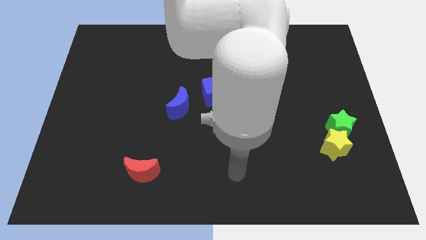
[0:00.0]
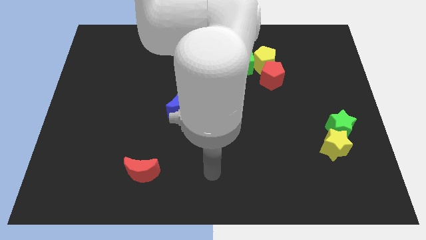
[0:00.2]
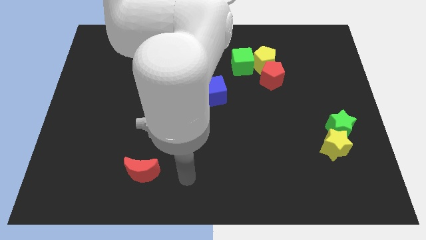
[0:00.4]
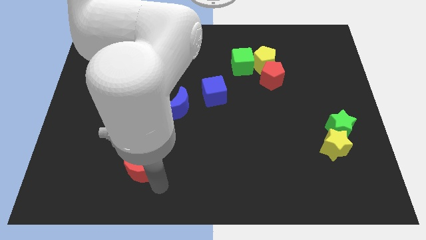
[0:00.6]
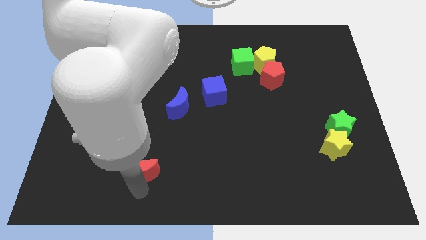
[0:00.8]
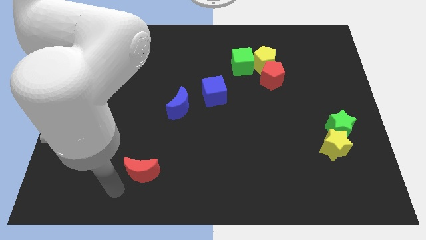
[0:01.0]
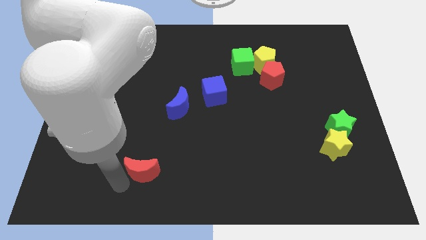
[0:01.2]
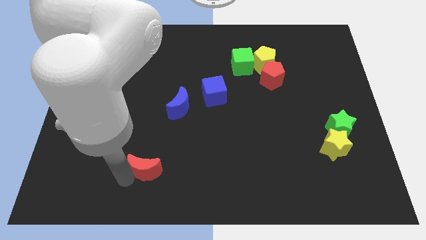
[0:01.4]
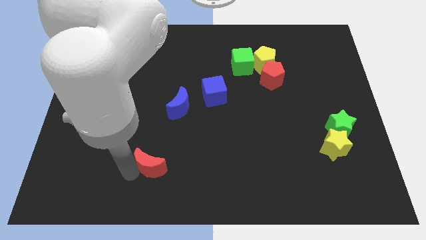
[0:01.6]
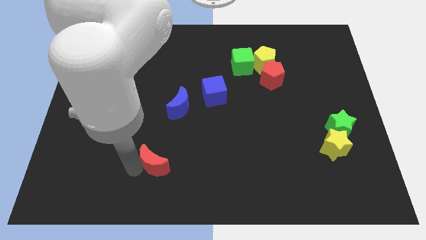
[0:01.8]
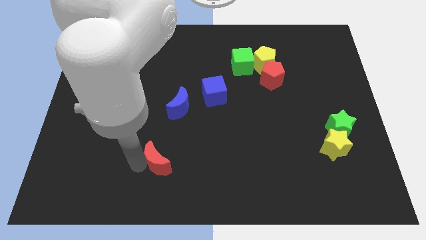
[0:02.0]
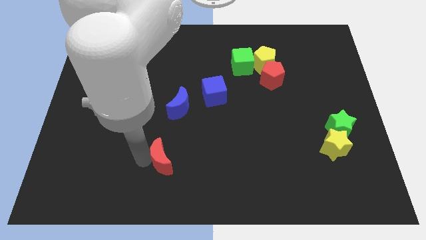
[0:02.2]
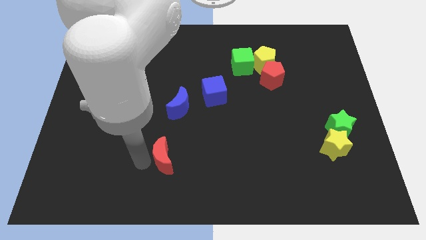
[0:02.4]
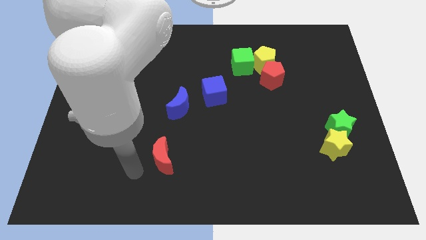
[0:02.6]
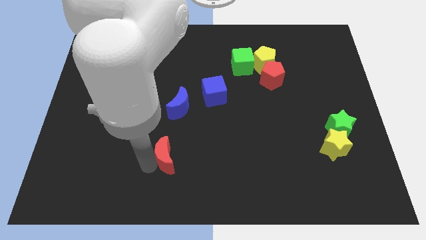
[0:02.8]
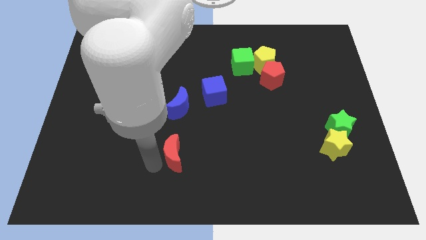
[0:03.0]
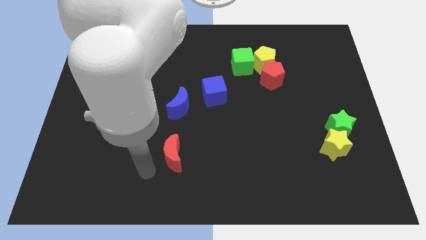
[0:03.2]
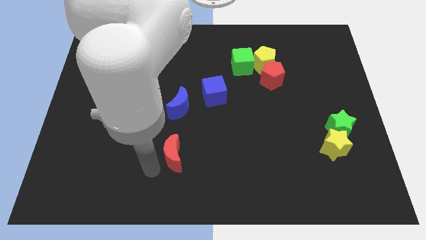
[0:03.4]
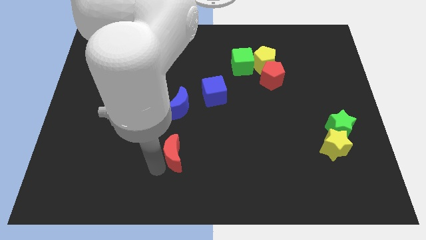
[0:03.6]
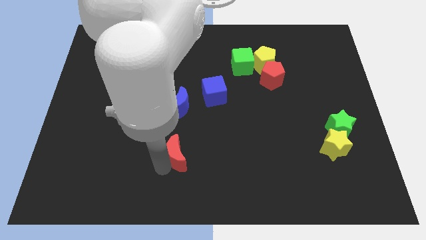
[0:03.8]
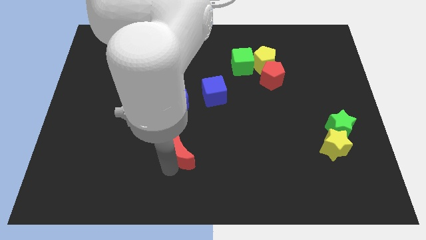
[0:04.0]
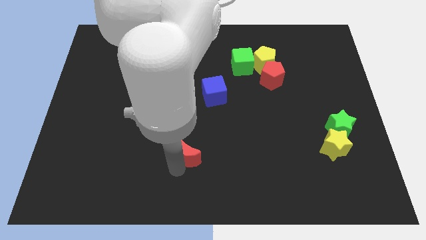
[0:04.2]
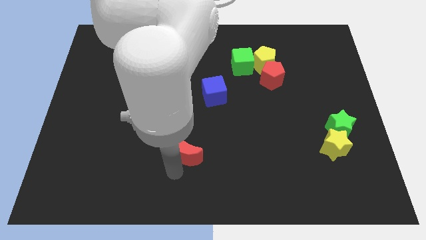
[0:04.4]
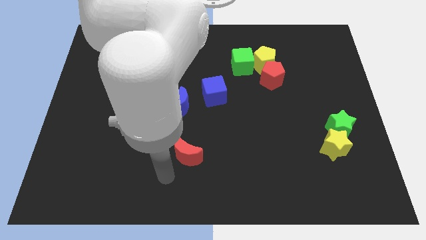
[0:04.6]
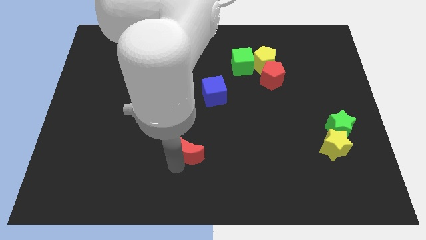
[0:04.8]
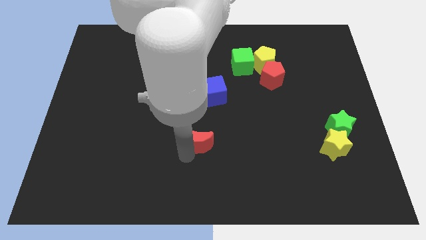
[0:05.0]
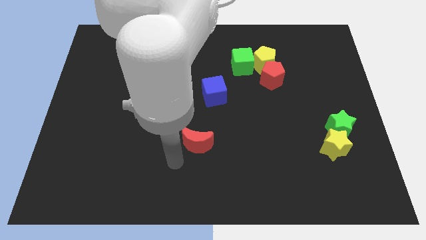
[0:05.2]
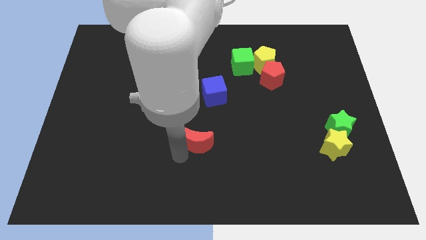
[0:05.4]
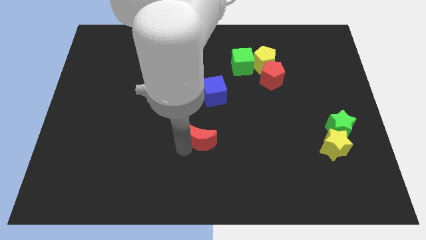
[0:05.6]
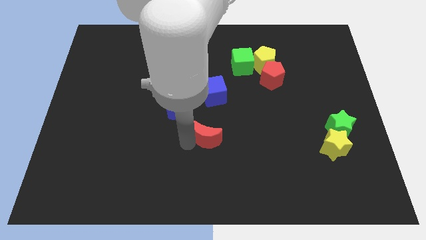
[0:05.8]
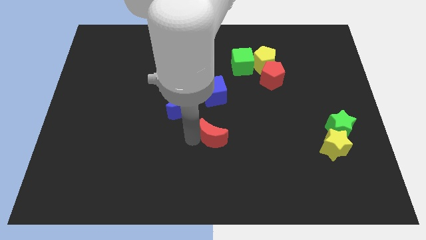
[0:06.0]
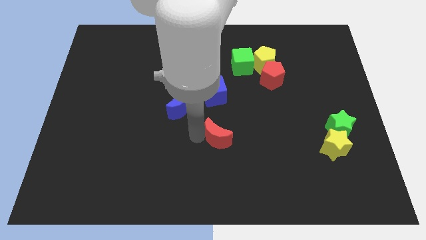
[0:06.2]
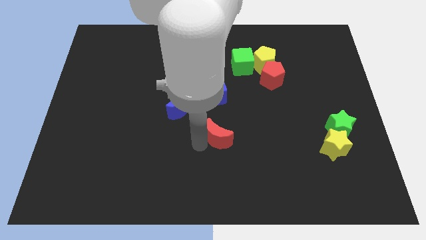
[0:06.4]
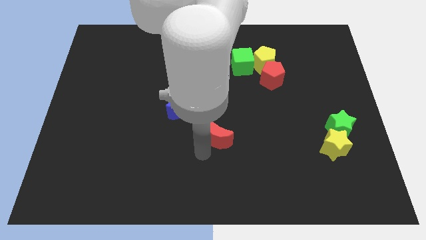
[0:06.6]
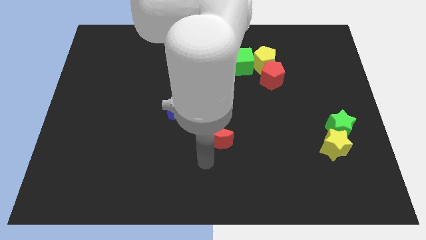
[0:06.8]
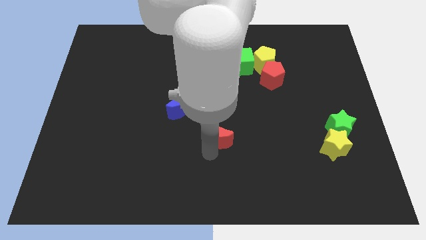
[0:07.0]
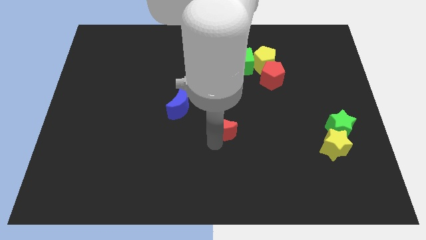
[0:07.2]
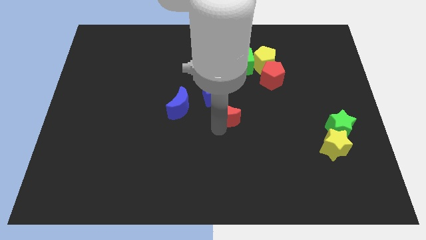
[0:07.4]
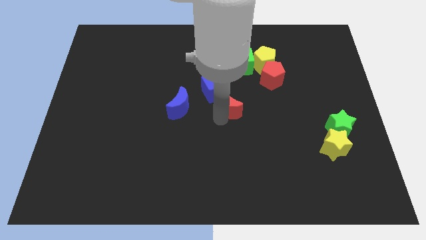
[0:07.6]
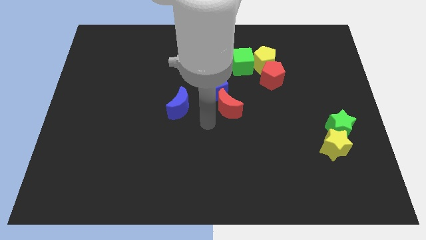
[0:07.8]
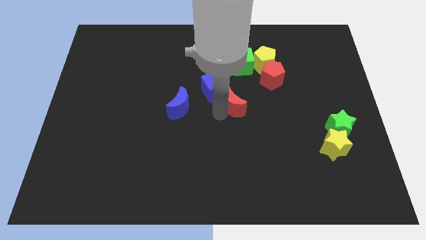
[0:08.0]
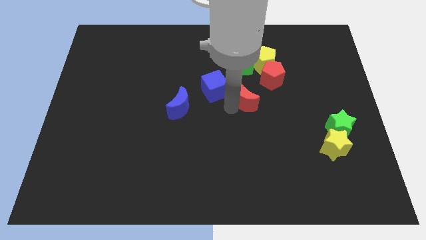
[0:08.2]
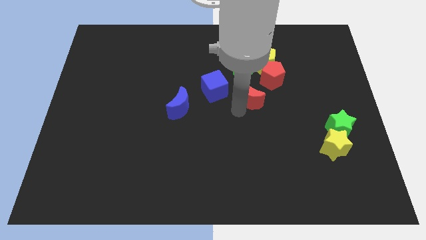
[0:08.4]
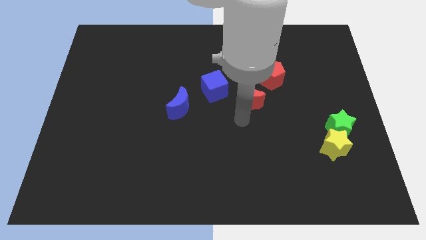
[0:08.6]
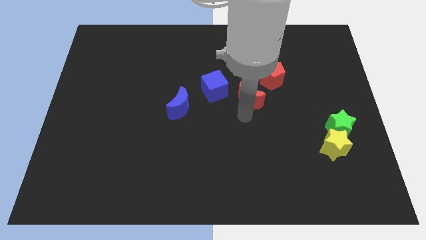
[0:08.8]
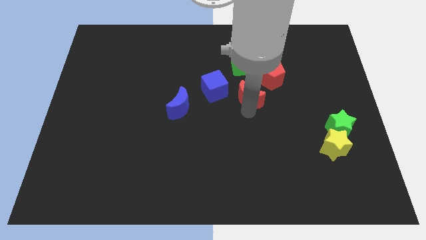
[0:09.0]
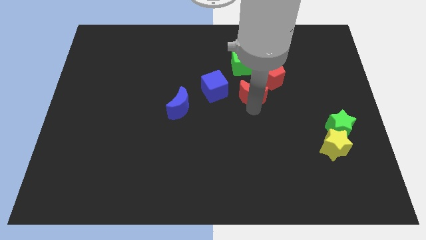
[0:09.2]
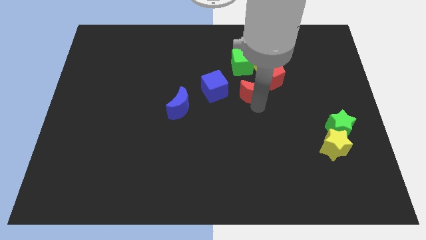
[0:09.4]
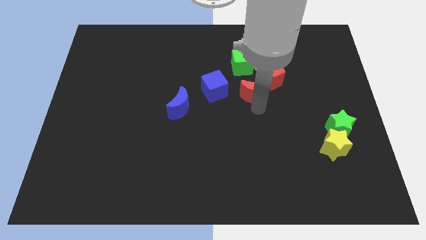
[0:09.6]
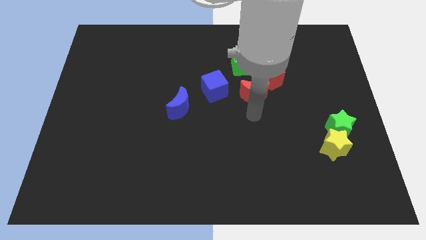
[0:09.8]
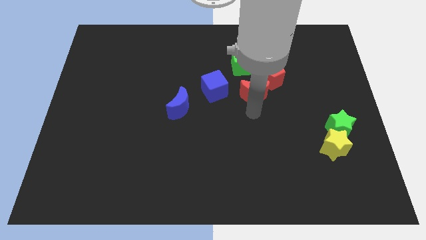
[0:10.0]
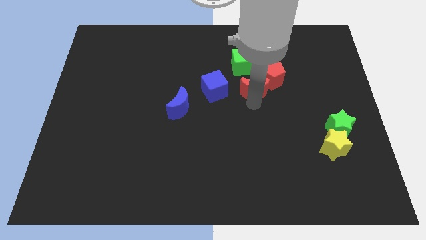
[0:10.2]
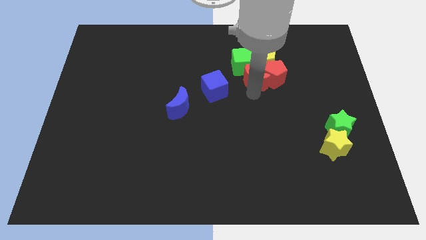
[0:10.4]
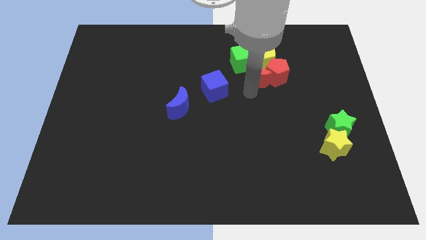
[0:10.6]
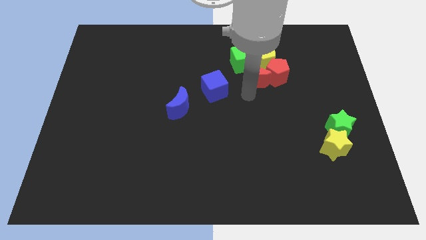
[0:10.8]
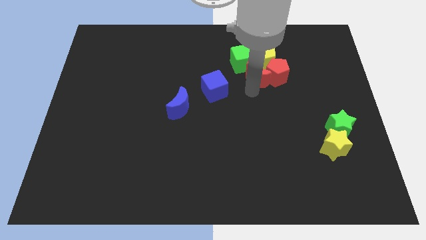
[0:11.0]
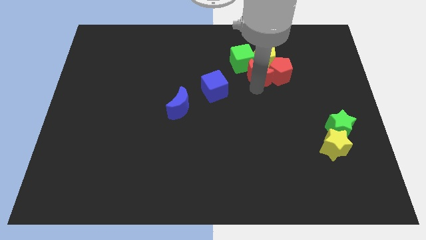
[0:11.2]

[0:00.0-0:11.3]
push the red moon close to the yellow pentagon

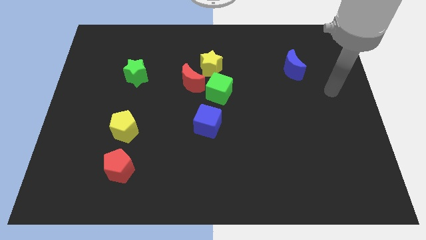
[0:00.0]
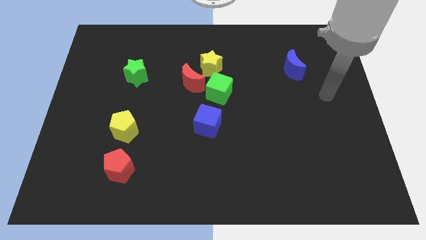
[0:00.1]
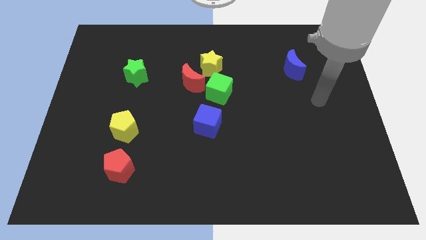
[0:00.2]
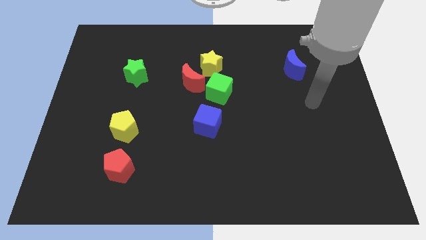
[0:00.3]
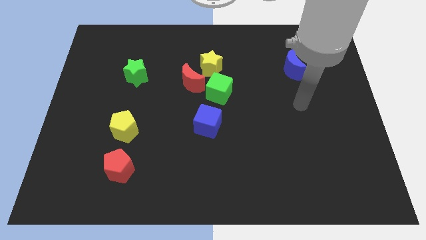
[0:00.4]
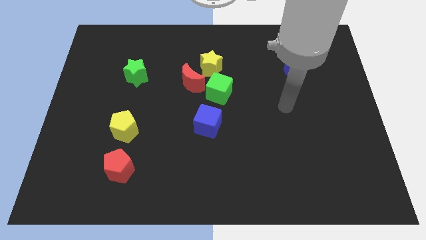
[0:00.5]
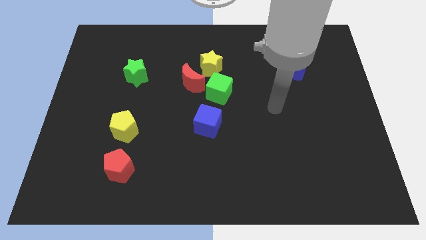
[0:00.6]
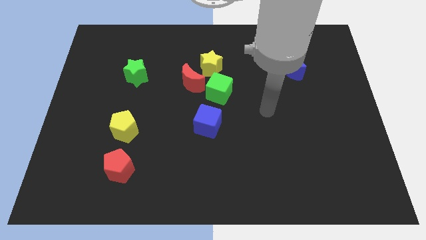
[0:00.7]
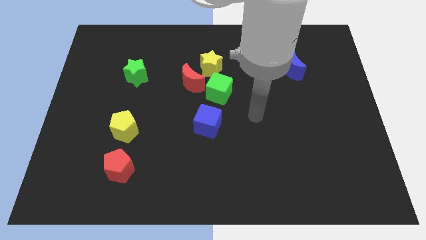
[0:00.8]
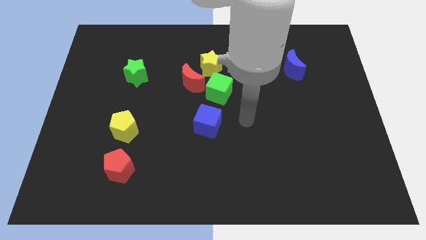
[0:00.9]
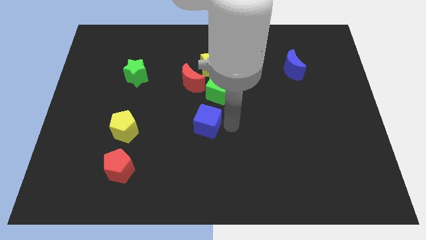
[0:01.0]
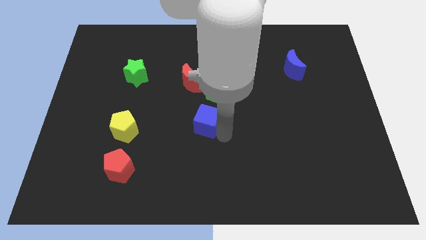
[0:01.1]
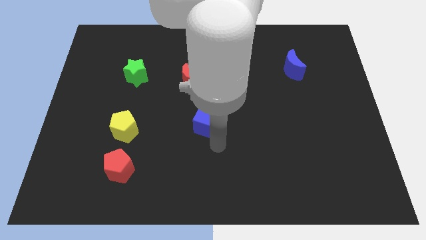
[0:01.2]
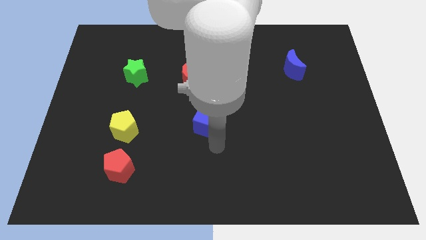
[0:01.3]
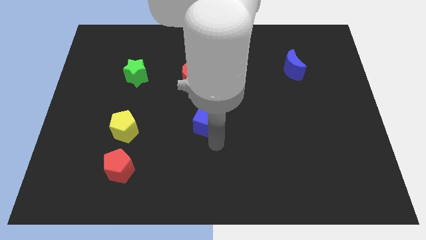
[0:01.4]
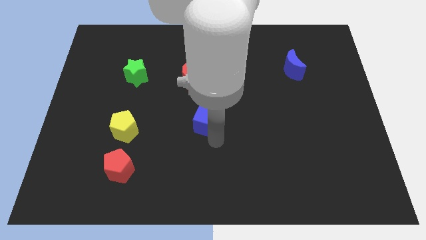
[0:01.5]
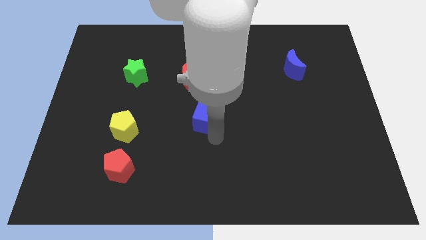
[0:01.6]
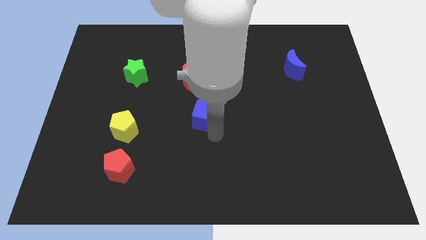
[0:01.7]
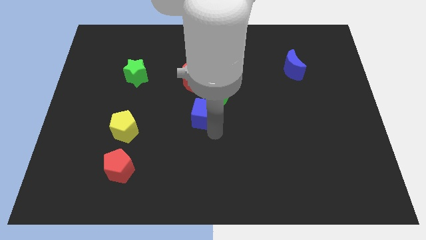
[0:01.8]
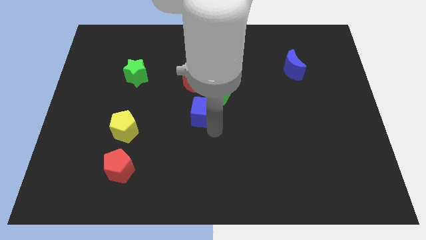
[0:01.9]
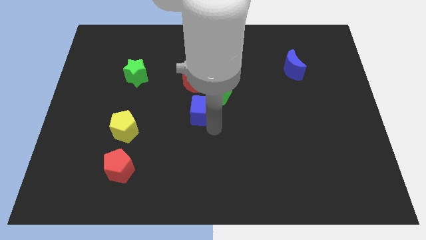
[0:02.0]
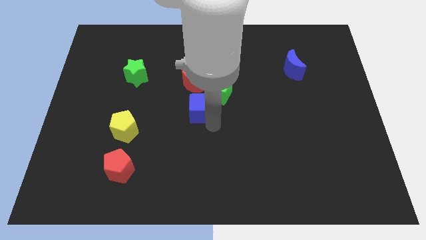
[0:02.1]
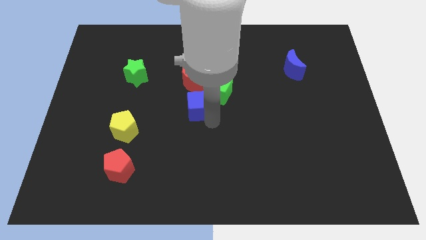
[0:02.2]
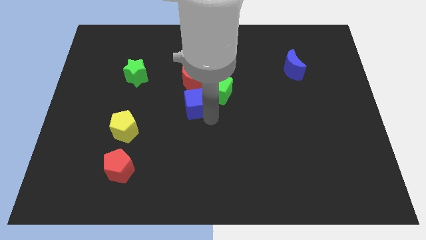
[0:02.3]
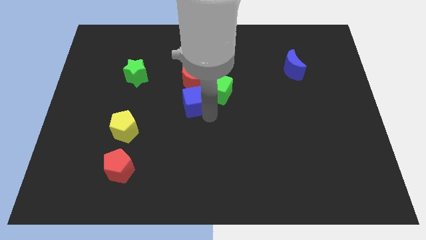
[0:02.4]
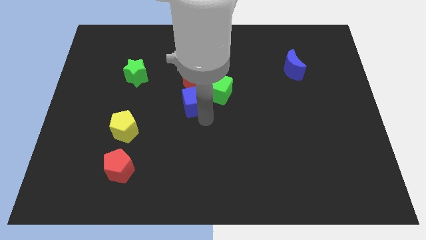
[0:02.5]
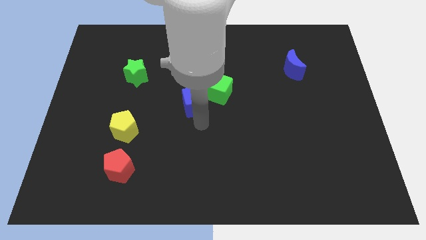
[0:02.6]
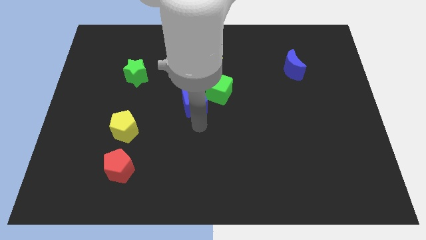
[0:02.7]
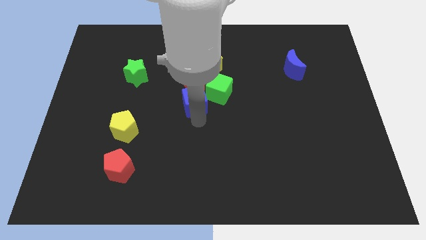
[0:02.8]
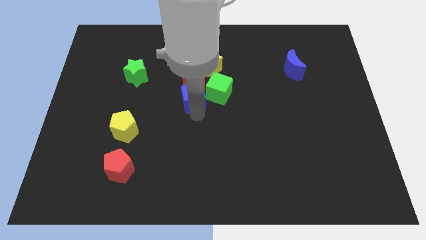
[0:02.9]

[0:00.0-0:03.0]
push the blue cube to the red moon
